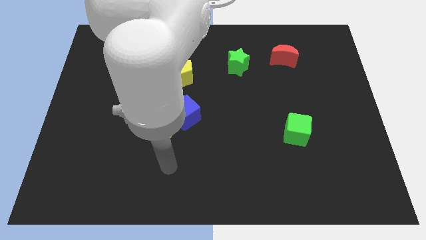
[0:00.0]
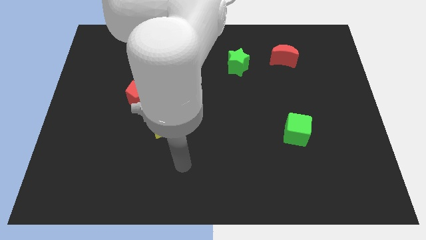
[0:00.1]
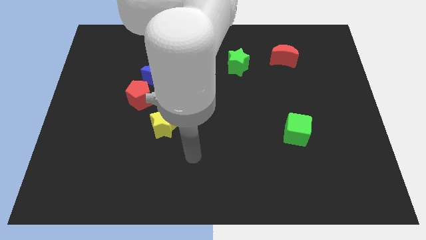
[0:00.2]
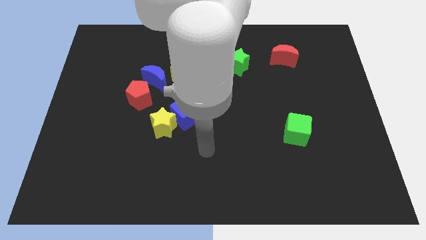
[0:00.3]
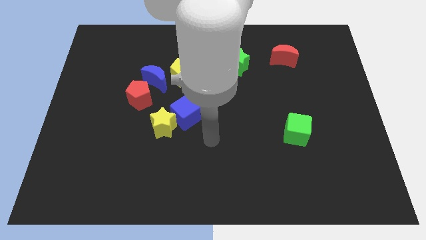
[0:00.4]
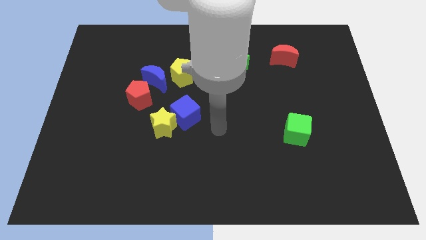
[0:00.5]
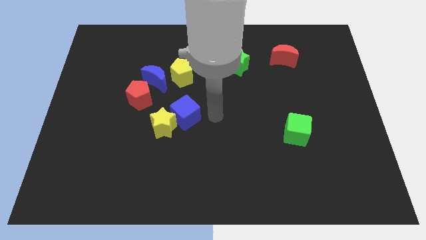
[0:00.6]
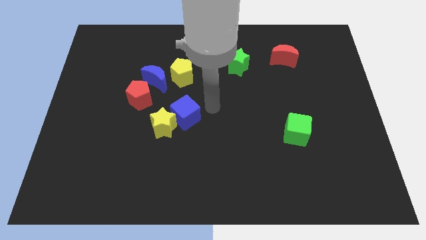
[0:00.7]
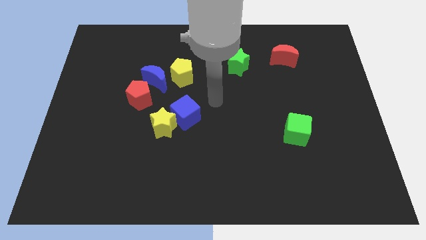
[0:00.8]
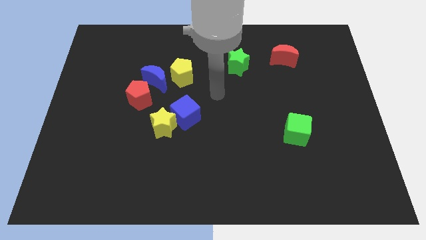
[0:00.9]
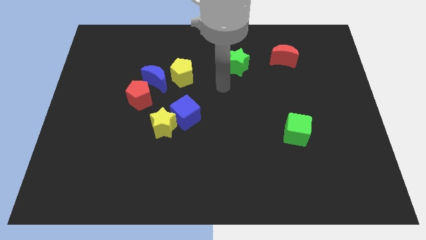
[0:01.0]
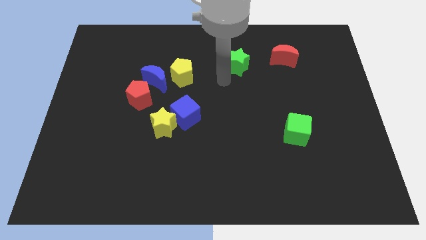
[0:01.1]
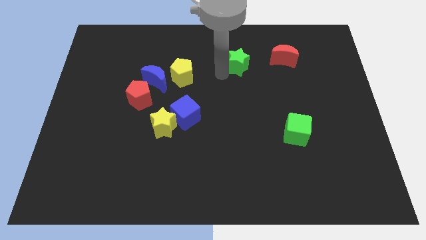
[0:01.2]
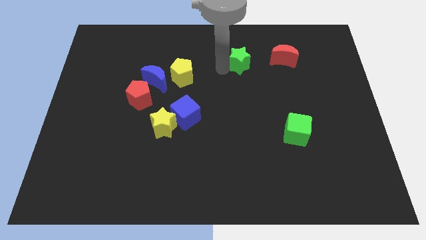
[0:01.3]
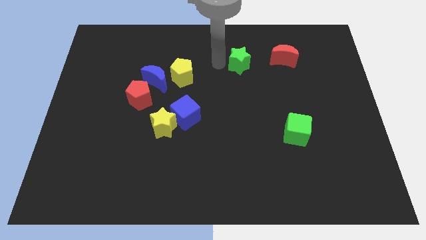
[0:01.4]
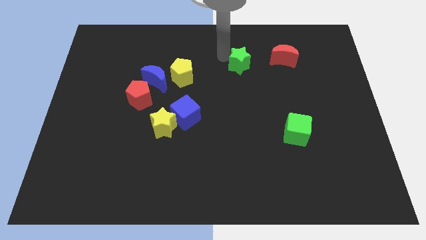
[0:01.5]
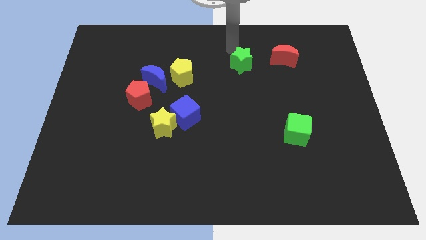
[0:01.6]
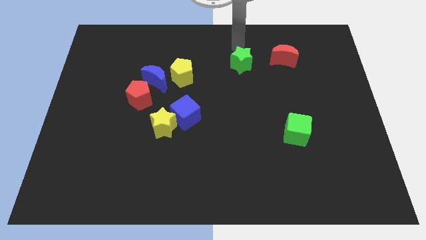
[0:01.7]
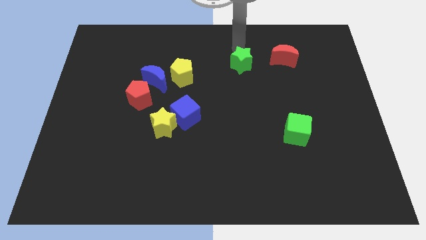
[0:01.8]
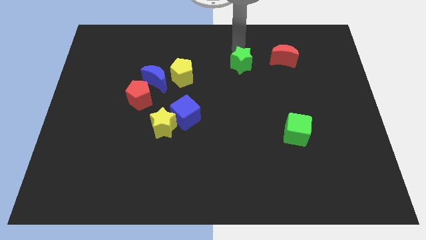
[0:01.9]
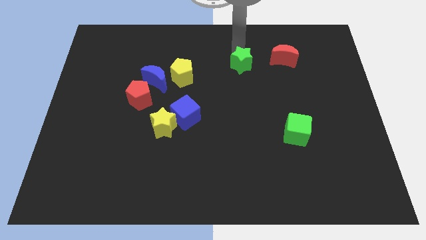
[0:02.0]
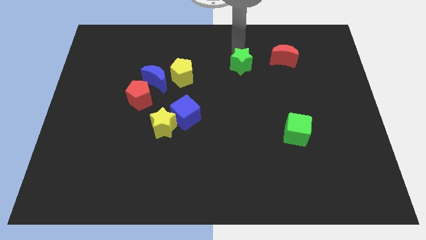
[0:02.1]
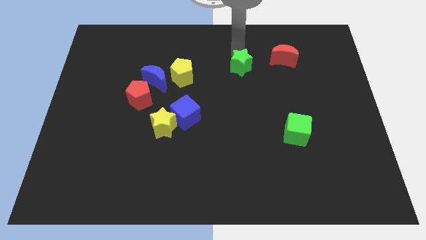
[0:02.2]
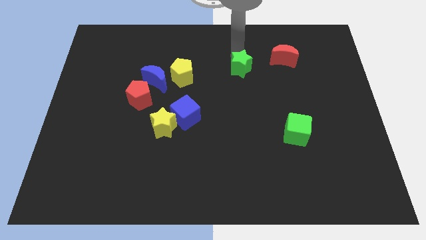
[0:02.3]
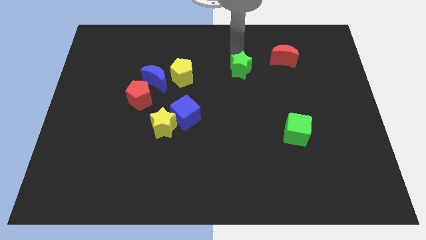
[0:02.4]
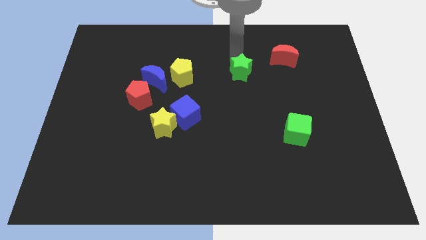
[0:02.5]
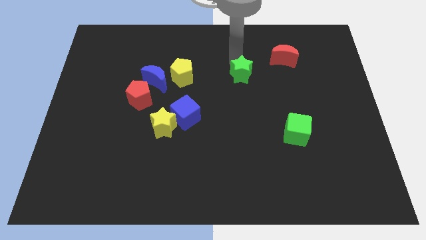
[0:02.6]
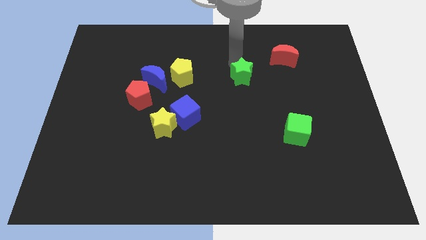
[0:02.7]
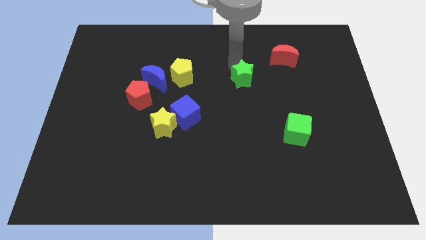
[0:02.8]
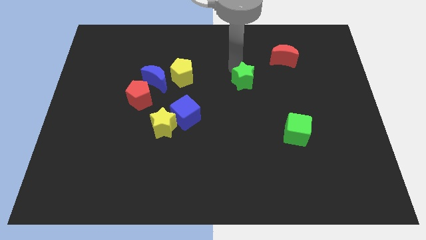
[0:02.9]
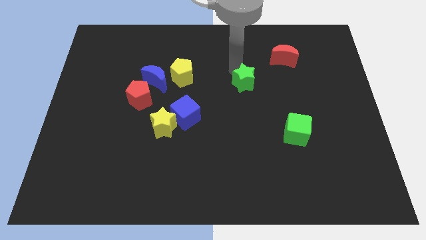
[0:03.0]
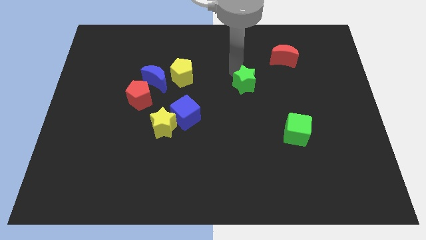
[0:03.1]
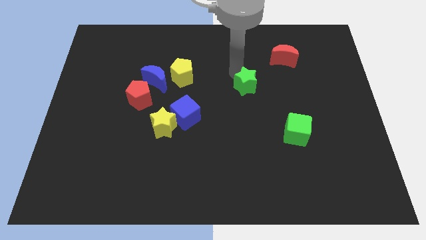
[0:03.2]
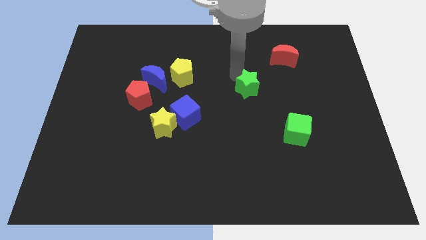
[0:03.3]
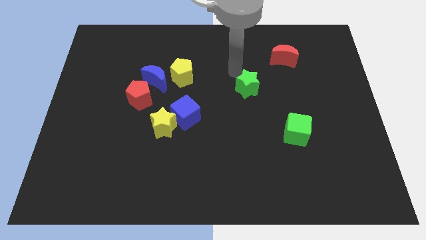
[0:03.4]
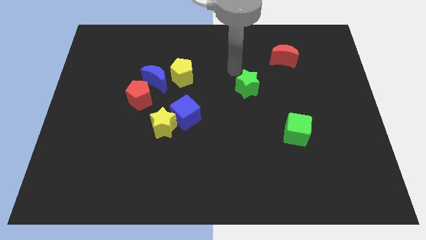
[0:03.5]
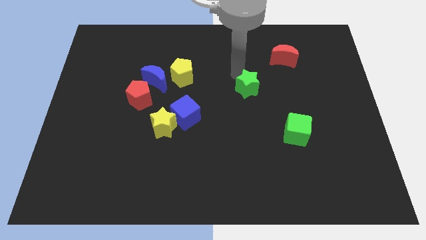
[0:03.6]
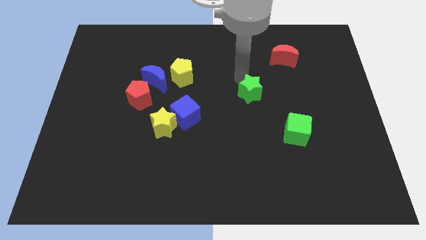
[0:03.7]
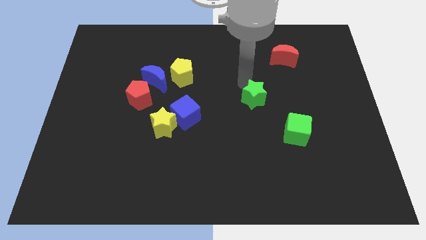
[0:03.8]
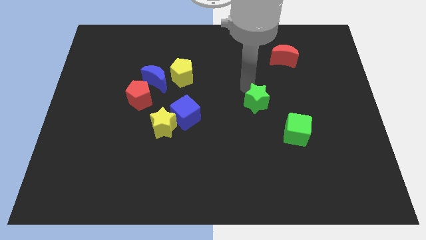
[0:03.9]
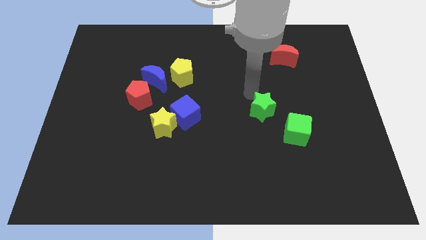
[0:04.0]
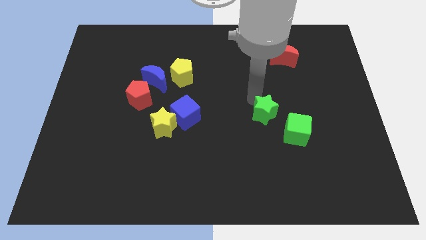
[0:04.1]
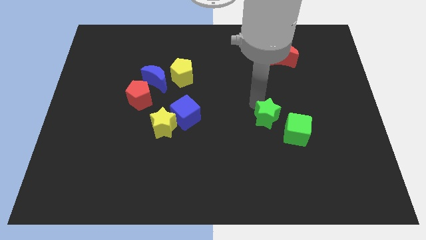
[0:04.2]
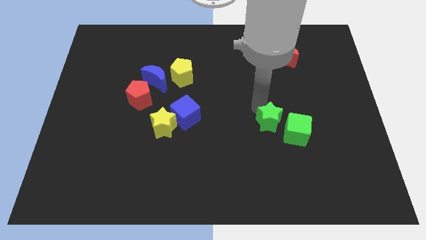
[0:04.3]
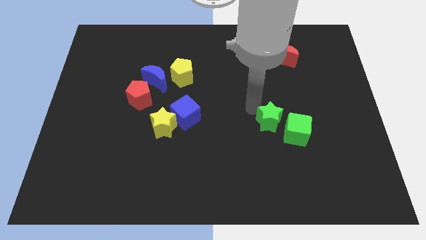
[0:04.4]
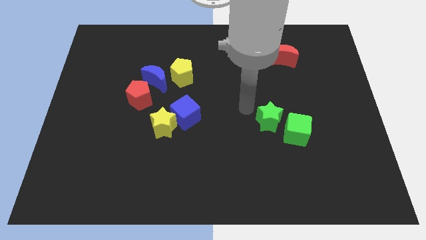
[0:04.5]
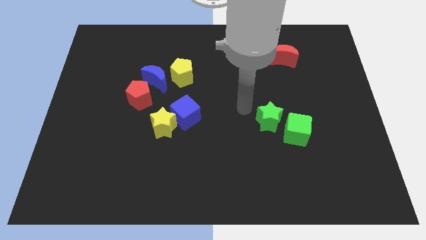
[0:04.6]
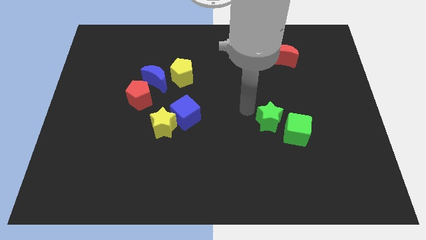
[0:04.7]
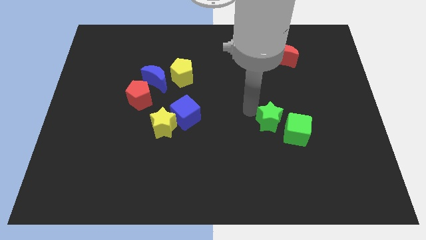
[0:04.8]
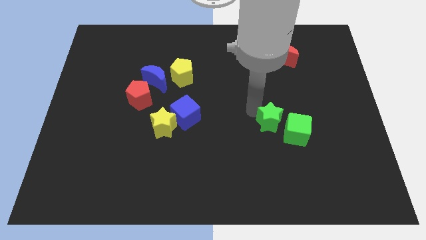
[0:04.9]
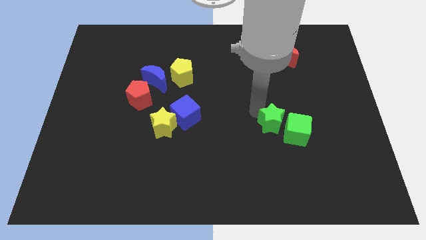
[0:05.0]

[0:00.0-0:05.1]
slide the green star next to the green cube

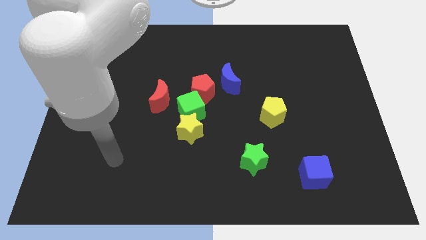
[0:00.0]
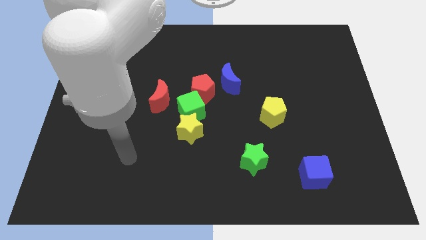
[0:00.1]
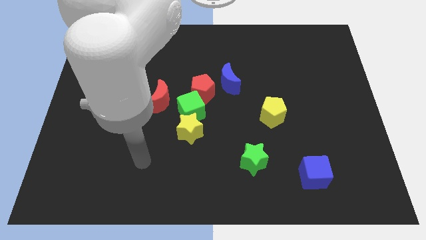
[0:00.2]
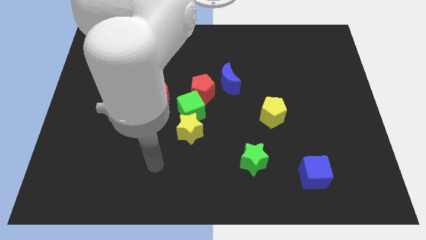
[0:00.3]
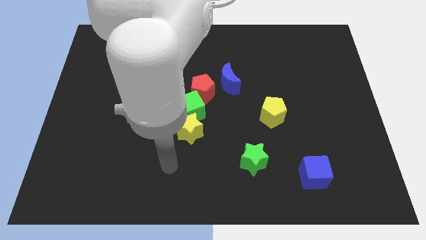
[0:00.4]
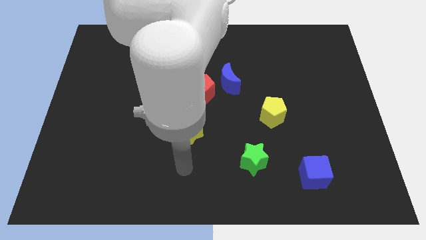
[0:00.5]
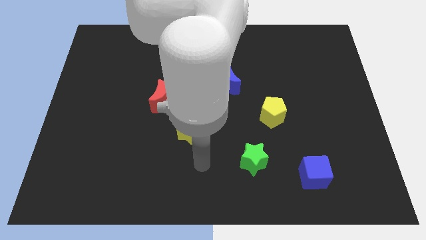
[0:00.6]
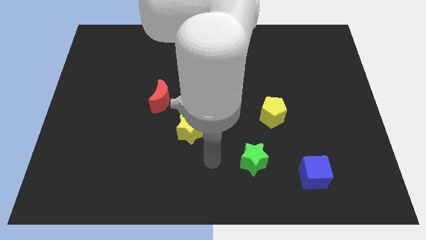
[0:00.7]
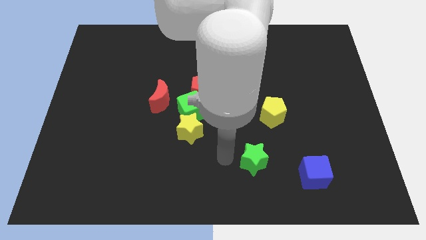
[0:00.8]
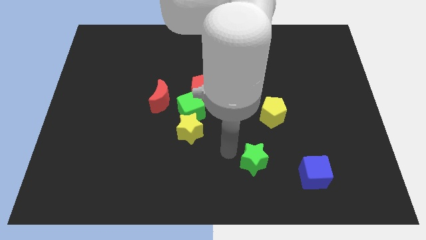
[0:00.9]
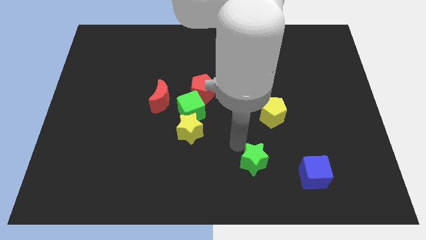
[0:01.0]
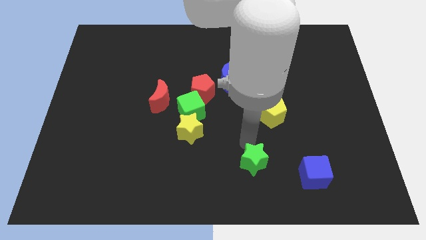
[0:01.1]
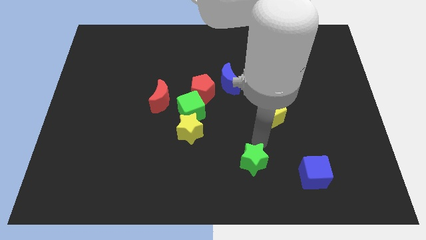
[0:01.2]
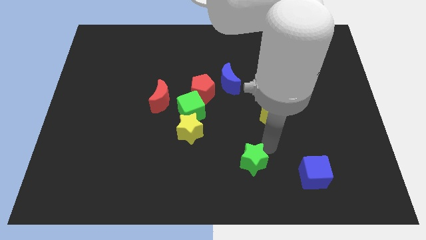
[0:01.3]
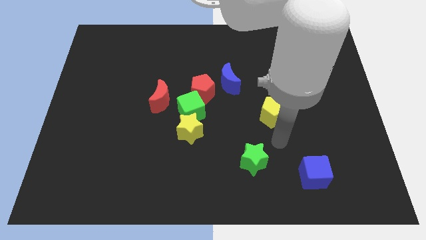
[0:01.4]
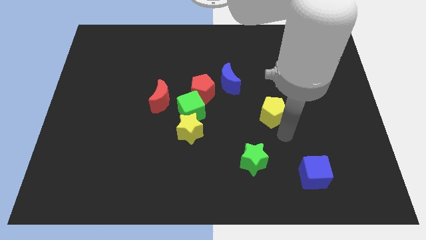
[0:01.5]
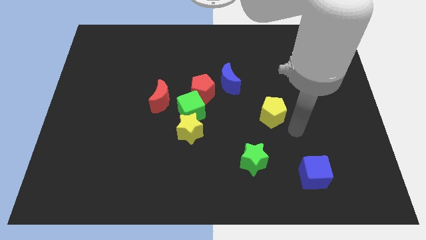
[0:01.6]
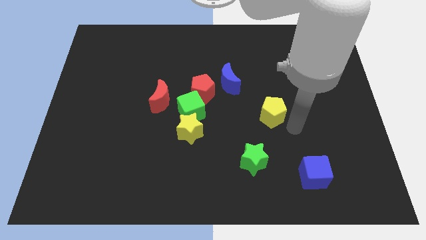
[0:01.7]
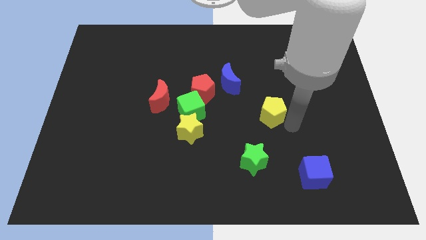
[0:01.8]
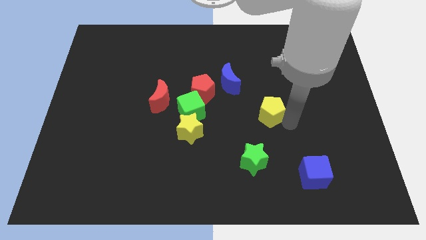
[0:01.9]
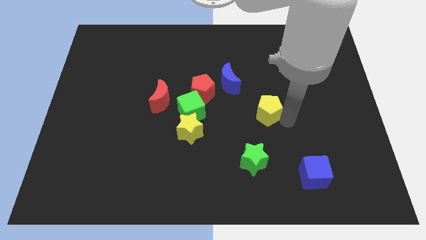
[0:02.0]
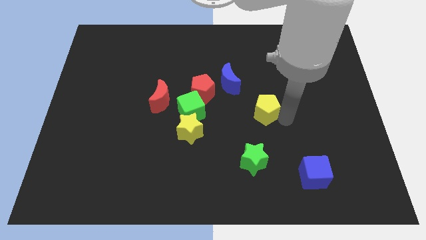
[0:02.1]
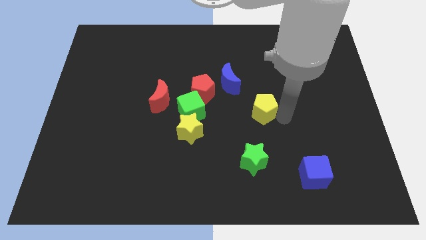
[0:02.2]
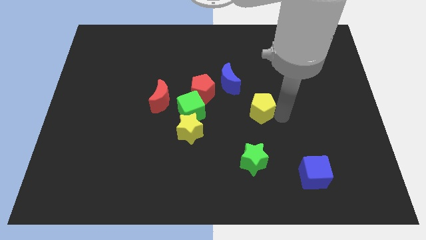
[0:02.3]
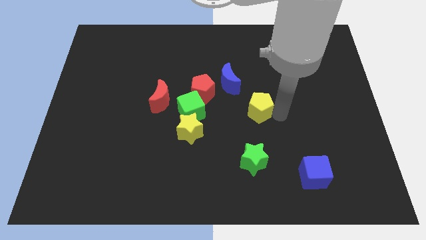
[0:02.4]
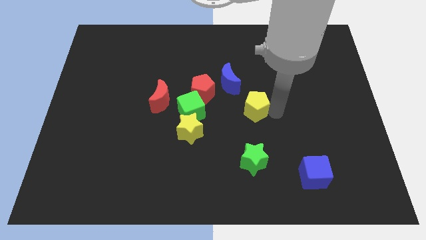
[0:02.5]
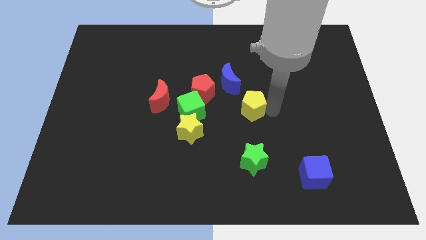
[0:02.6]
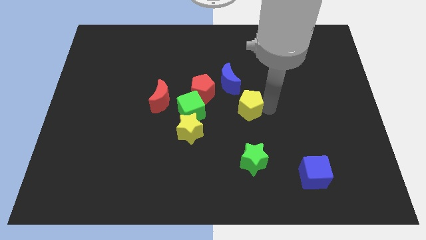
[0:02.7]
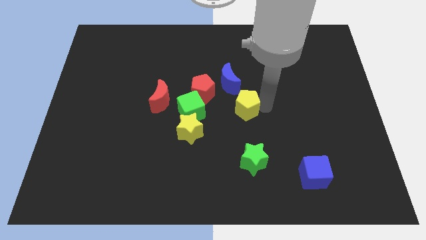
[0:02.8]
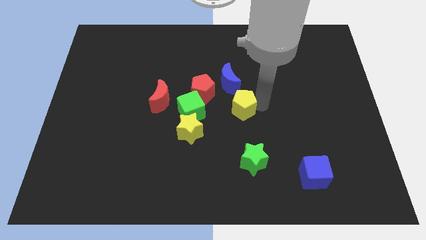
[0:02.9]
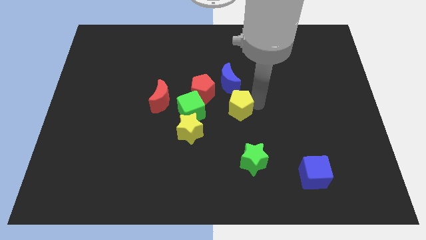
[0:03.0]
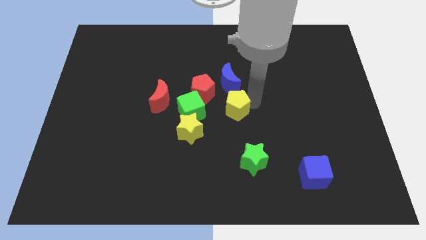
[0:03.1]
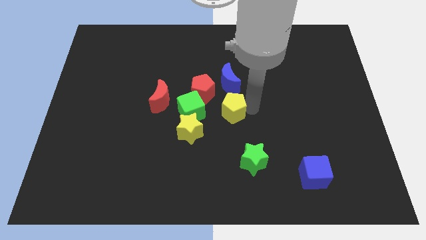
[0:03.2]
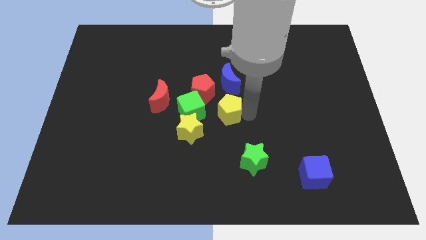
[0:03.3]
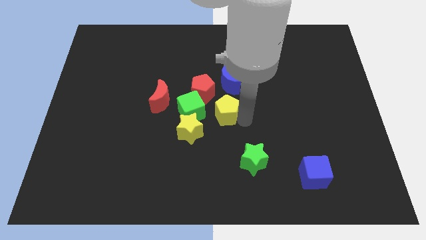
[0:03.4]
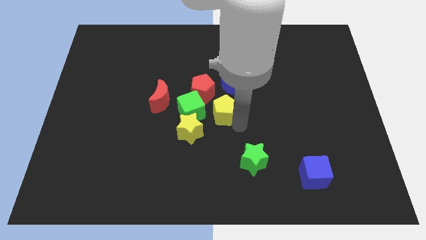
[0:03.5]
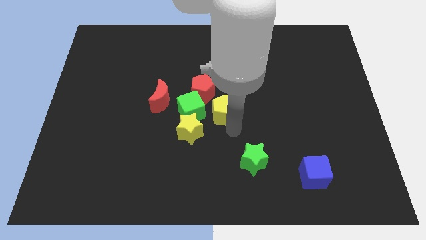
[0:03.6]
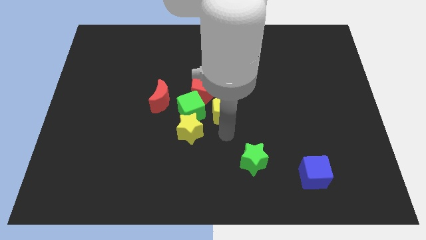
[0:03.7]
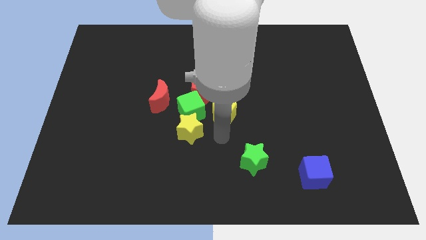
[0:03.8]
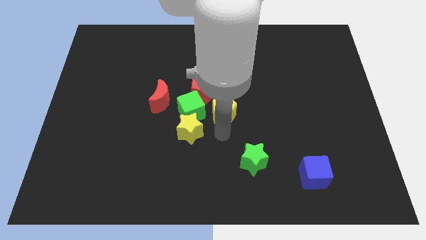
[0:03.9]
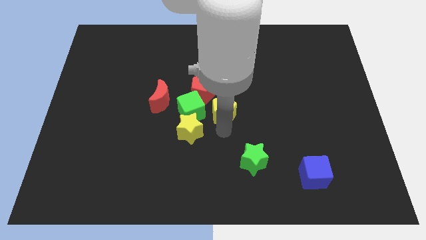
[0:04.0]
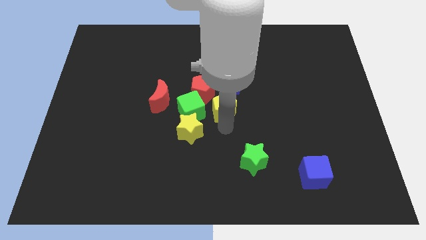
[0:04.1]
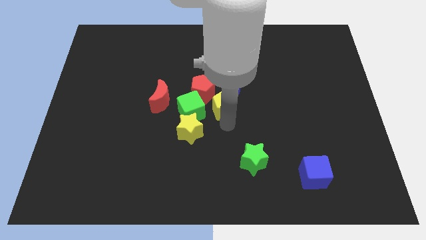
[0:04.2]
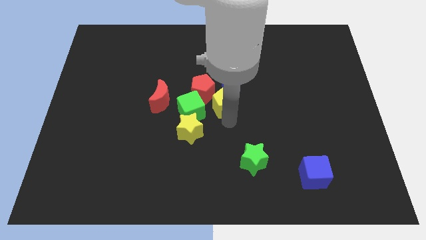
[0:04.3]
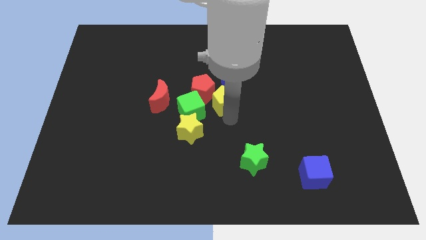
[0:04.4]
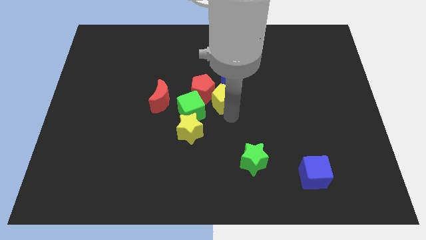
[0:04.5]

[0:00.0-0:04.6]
move the yellow pentagon towards the blue moon
